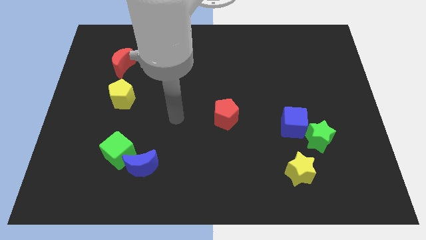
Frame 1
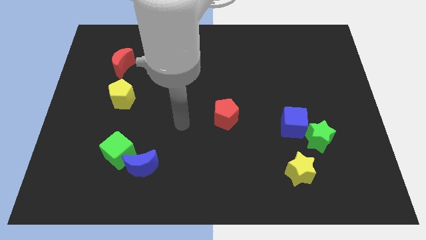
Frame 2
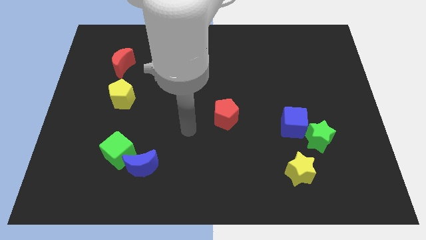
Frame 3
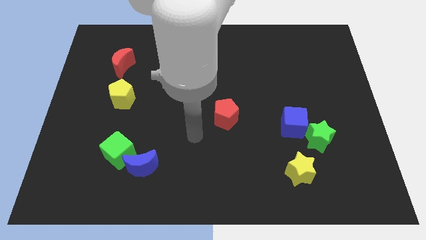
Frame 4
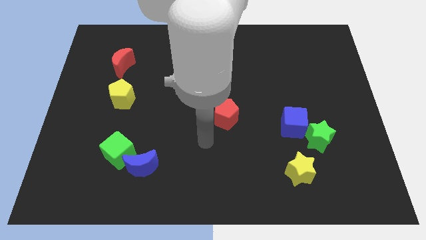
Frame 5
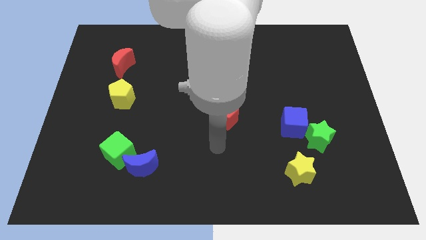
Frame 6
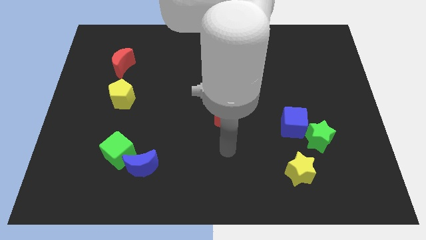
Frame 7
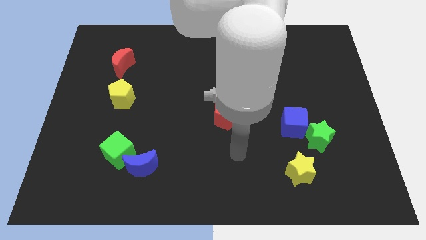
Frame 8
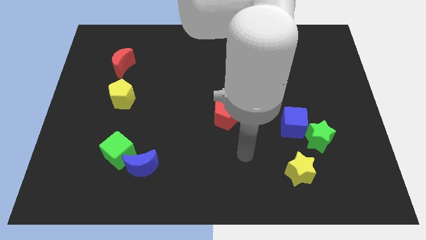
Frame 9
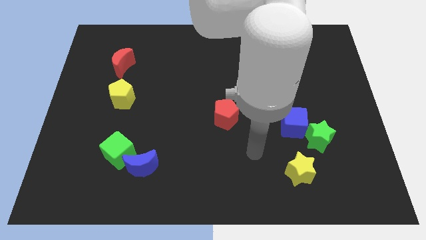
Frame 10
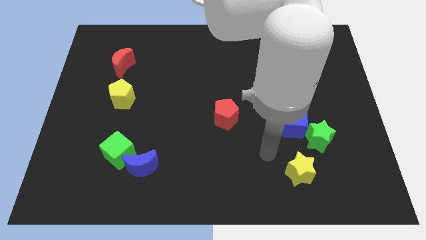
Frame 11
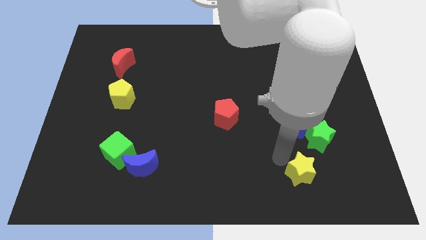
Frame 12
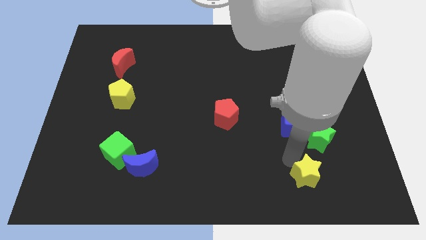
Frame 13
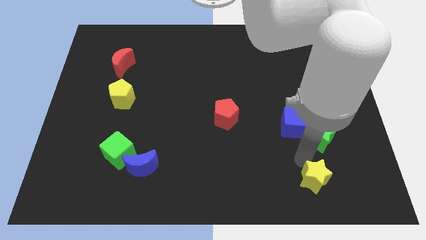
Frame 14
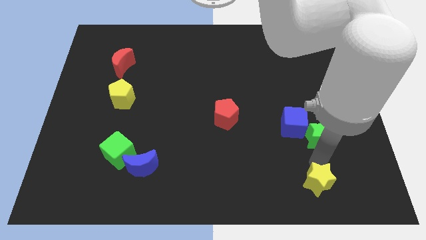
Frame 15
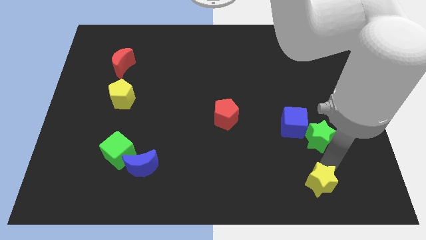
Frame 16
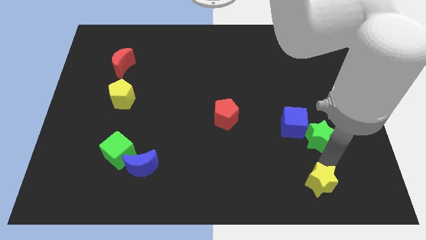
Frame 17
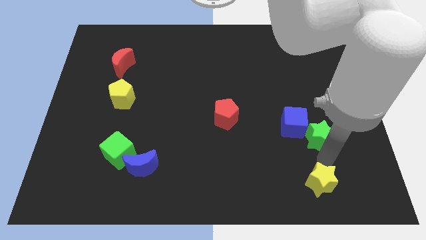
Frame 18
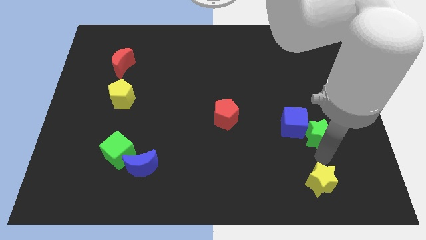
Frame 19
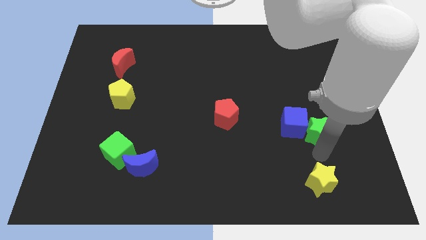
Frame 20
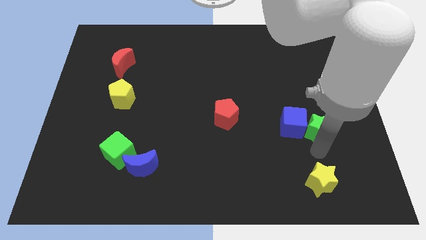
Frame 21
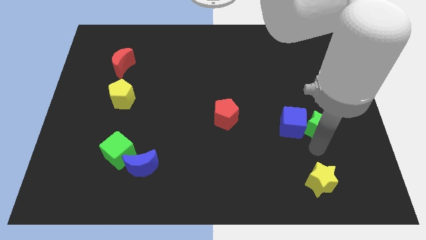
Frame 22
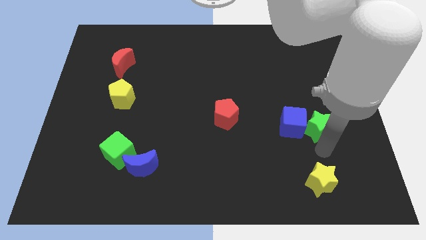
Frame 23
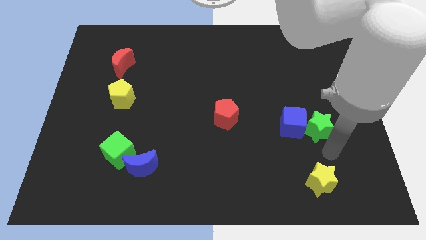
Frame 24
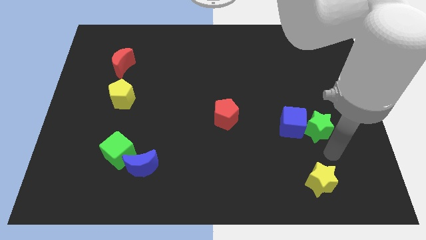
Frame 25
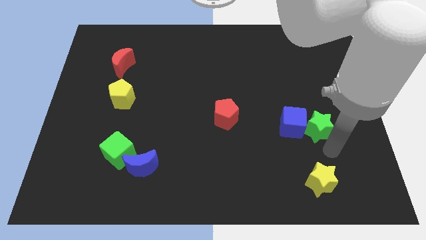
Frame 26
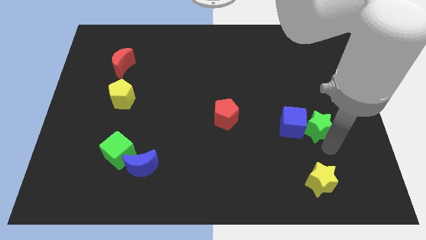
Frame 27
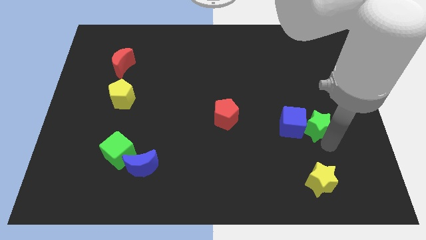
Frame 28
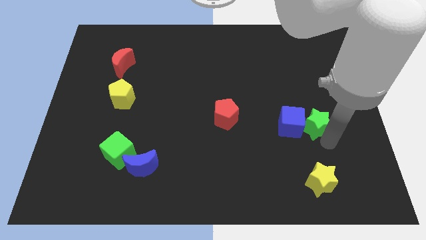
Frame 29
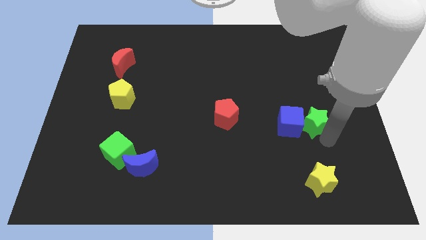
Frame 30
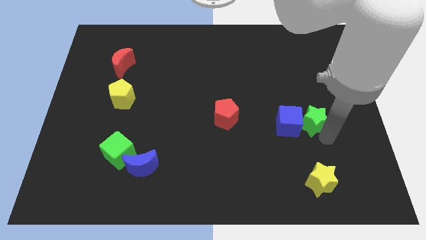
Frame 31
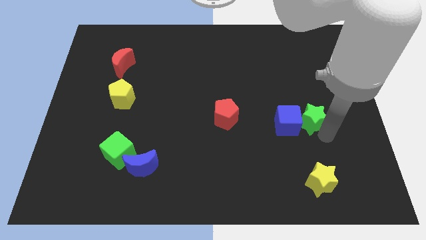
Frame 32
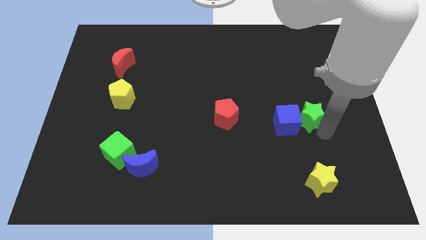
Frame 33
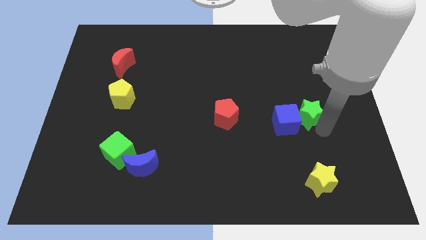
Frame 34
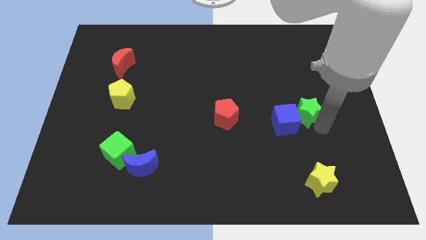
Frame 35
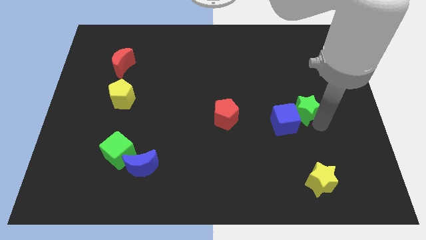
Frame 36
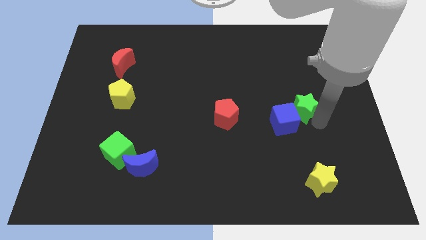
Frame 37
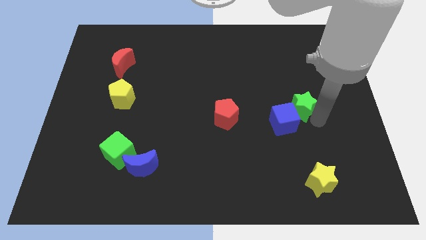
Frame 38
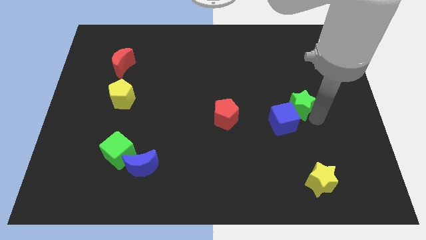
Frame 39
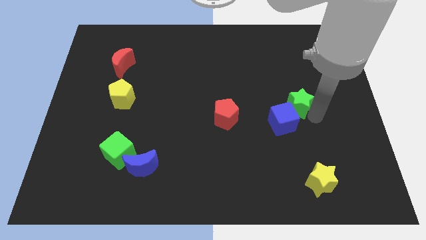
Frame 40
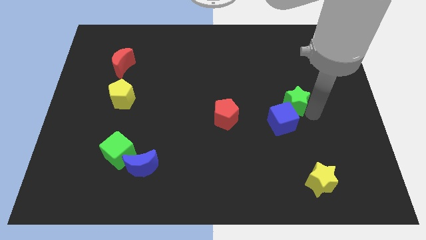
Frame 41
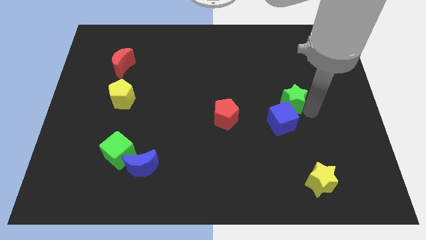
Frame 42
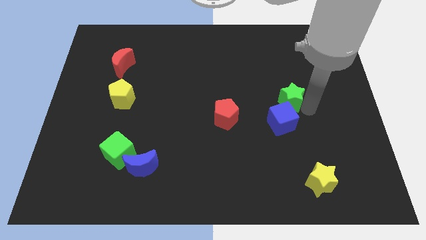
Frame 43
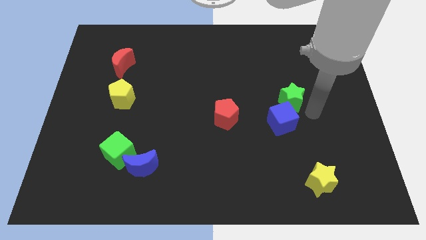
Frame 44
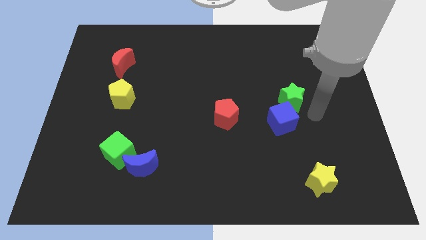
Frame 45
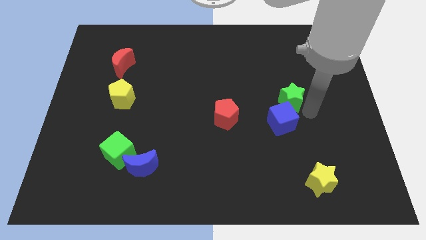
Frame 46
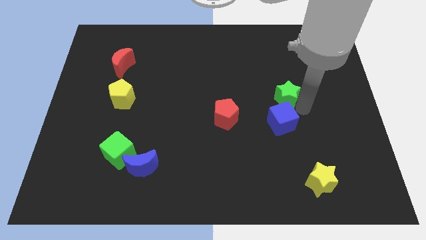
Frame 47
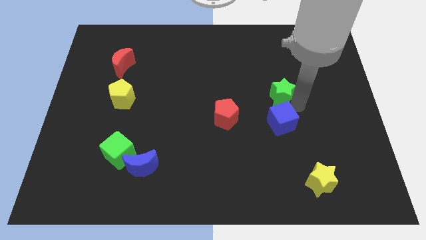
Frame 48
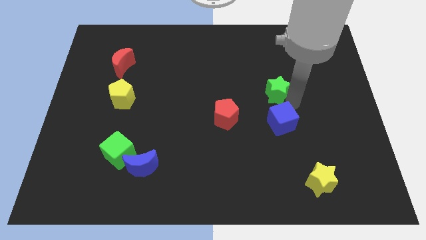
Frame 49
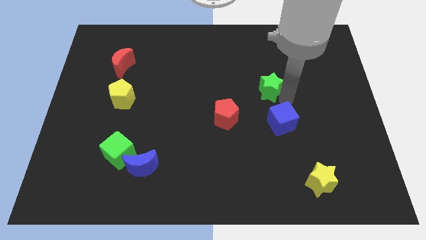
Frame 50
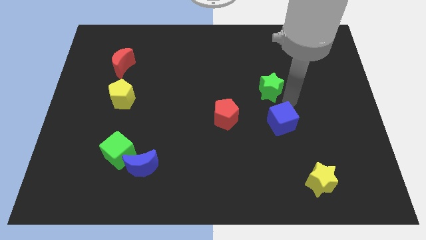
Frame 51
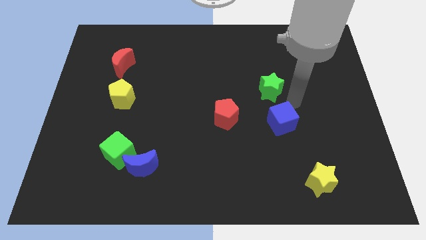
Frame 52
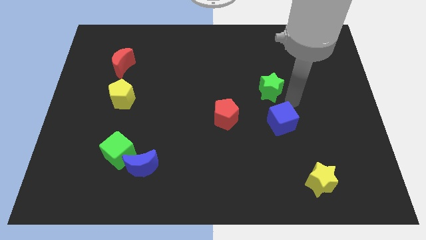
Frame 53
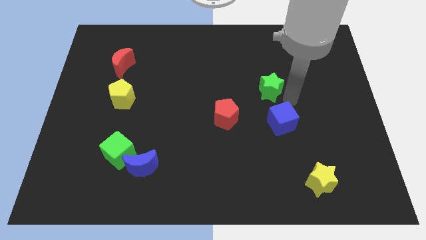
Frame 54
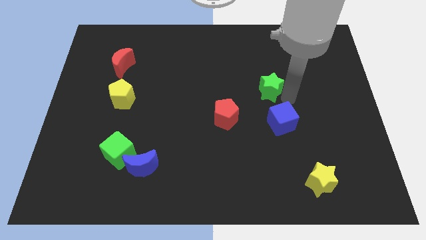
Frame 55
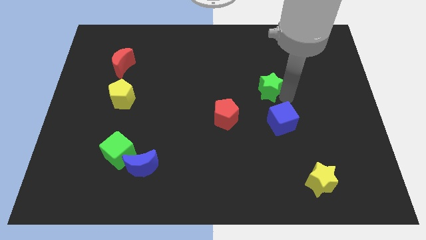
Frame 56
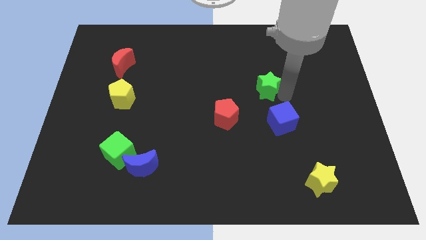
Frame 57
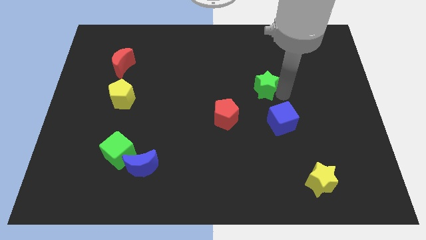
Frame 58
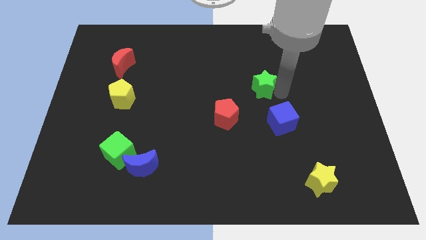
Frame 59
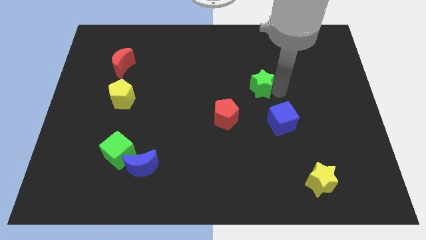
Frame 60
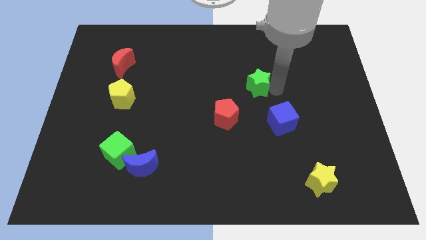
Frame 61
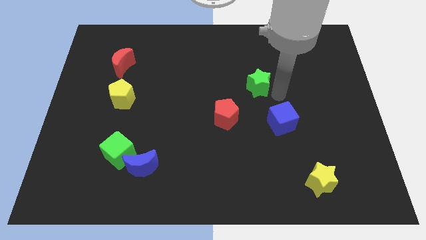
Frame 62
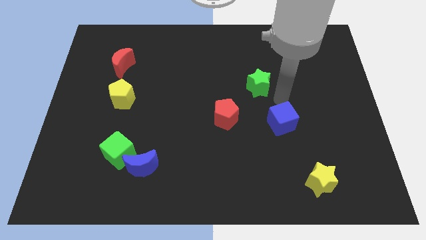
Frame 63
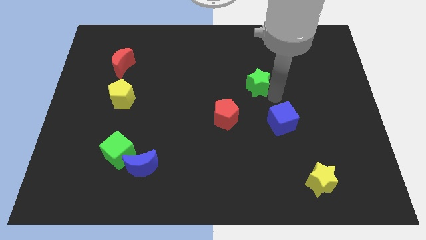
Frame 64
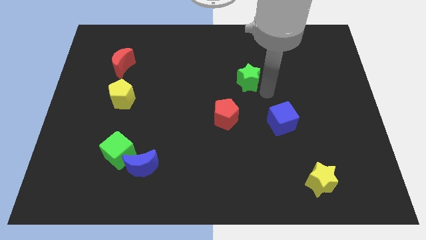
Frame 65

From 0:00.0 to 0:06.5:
push the green star upwards and to the left diagonally

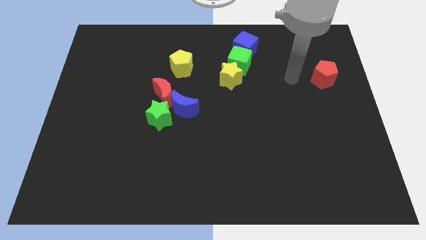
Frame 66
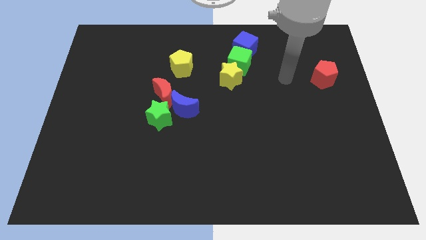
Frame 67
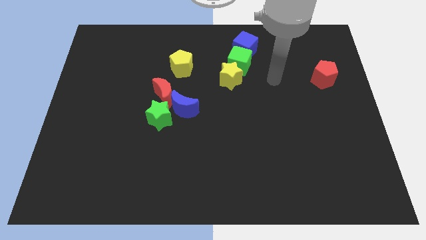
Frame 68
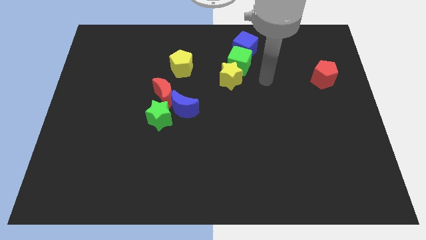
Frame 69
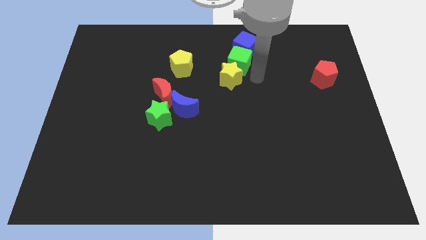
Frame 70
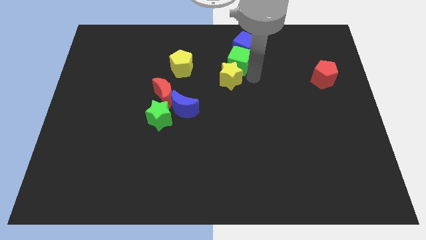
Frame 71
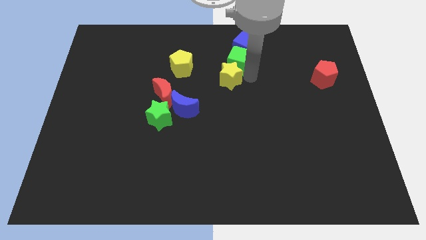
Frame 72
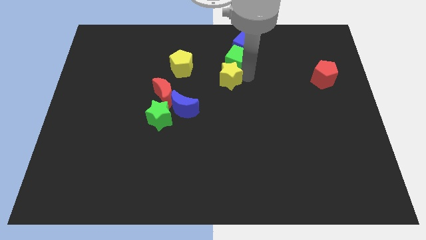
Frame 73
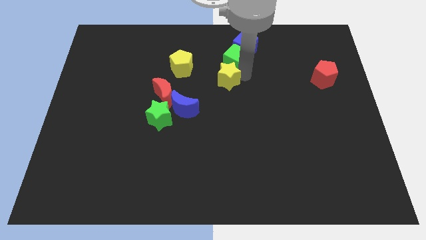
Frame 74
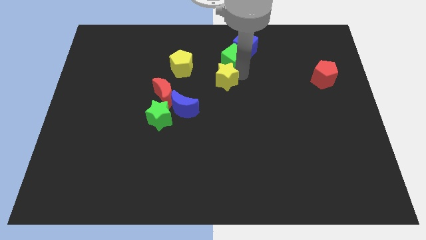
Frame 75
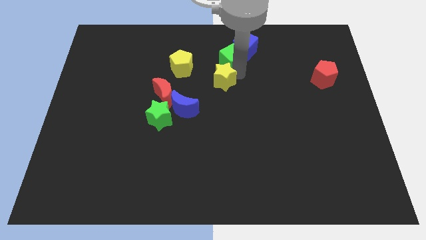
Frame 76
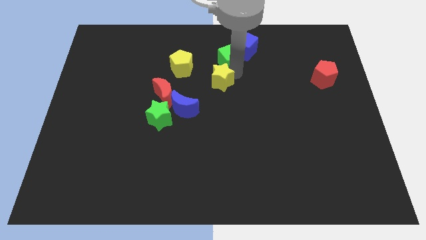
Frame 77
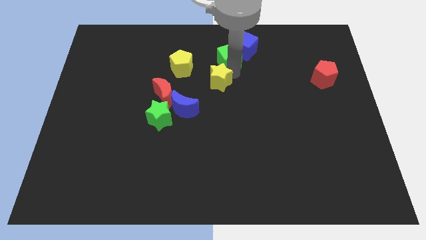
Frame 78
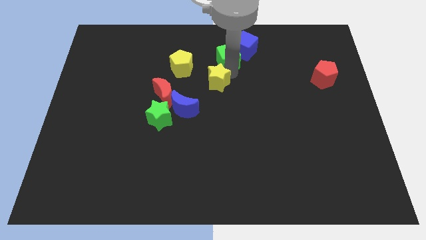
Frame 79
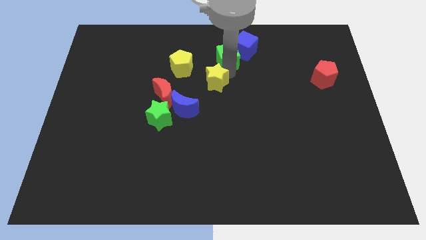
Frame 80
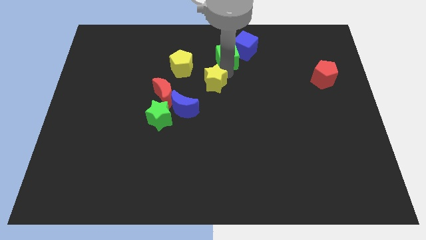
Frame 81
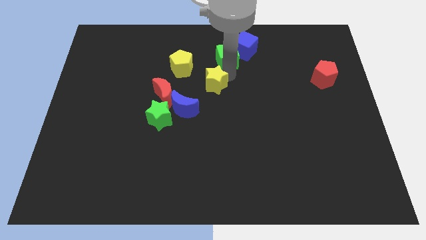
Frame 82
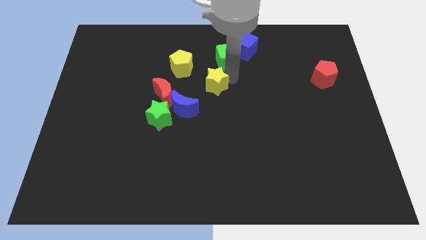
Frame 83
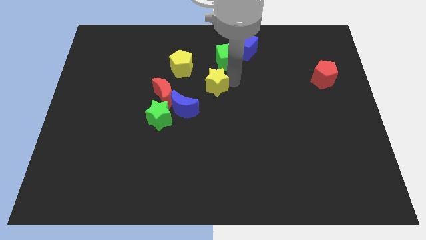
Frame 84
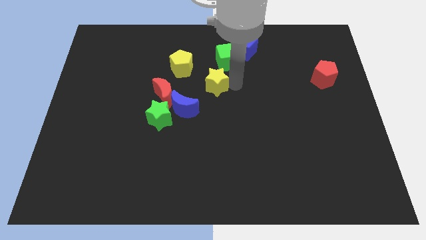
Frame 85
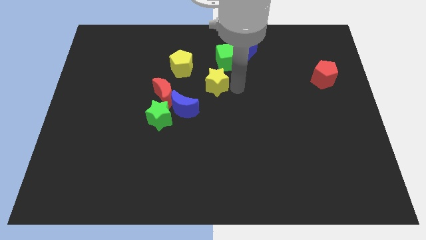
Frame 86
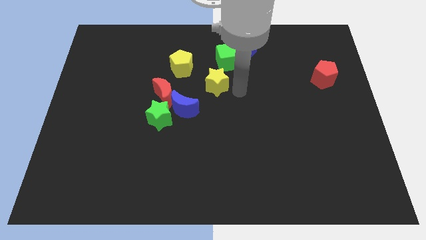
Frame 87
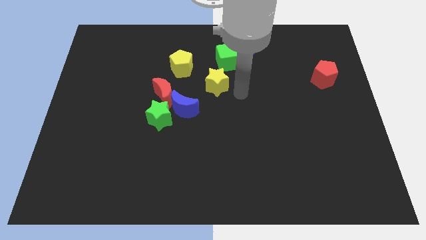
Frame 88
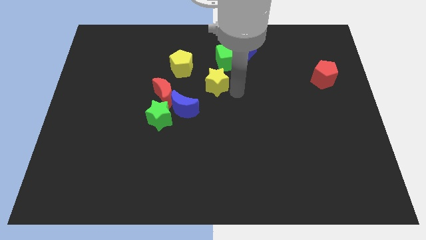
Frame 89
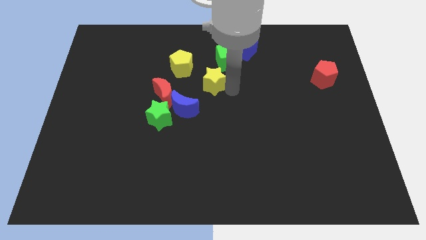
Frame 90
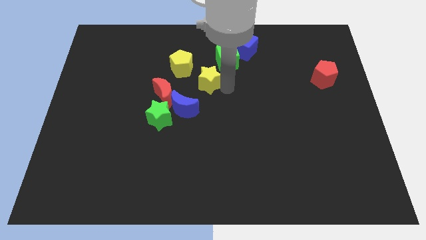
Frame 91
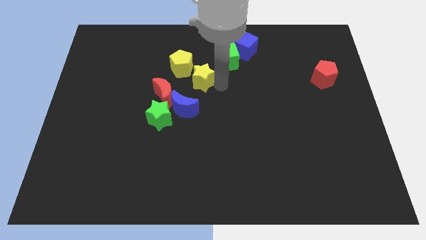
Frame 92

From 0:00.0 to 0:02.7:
move the yellow star left a little
